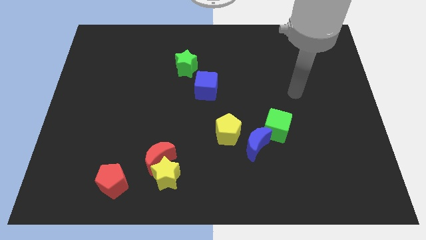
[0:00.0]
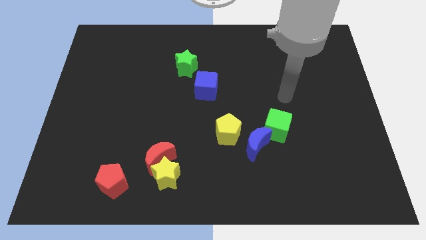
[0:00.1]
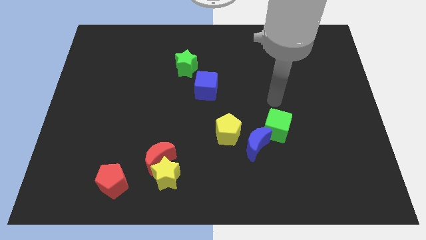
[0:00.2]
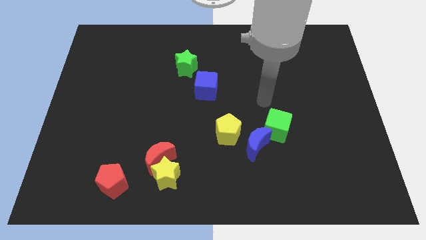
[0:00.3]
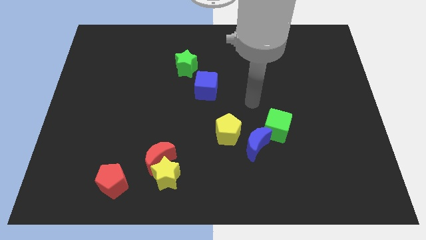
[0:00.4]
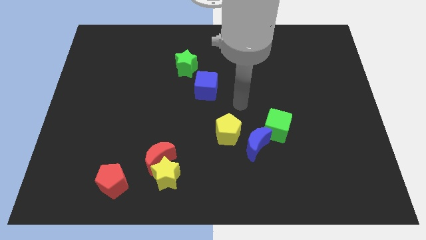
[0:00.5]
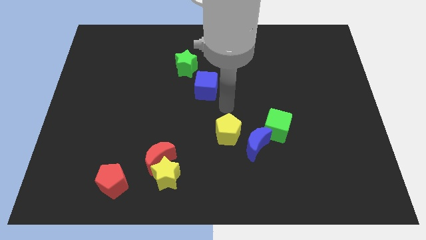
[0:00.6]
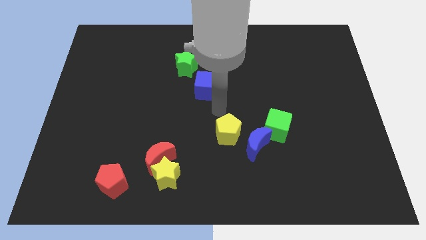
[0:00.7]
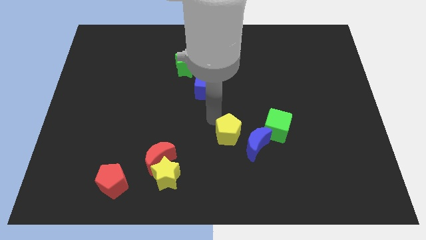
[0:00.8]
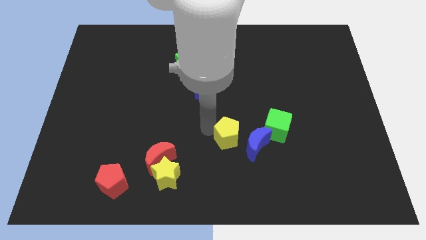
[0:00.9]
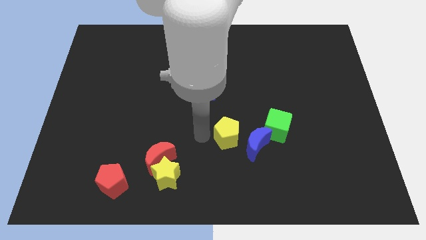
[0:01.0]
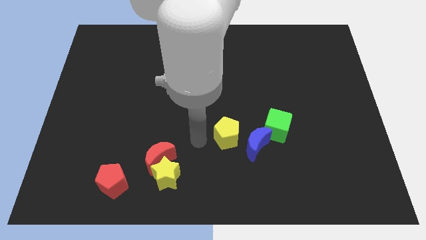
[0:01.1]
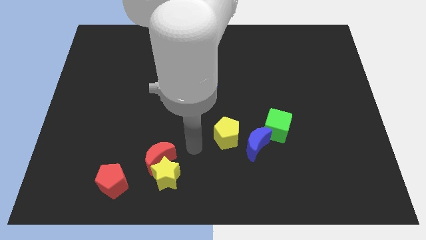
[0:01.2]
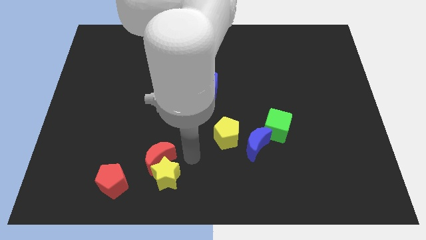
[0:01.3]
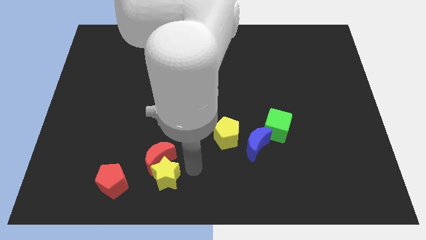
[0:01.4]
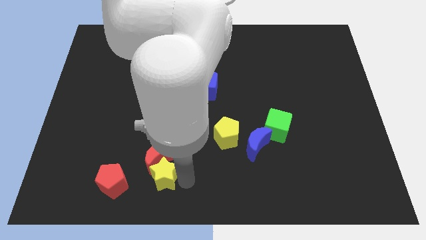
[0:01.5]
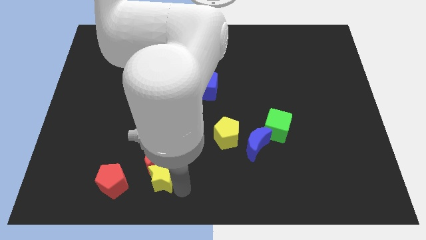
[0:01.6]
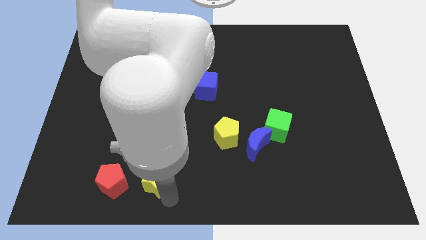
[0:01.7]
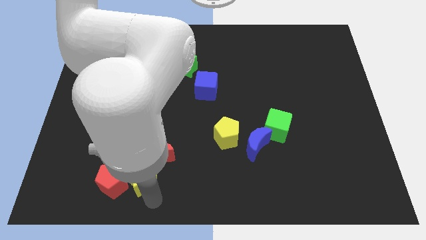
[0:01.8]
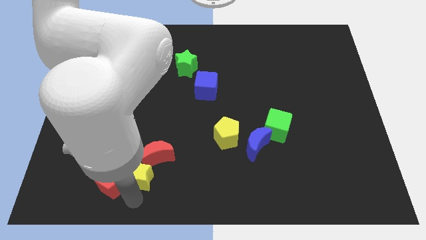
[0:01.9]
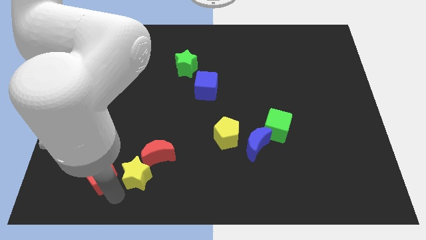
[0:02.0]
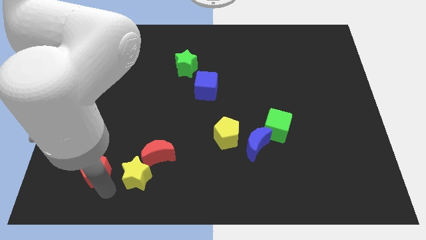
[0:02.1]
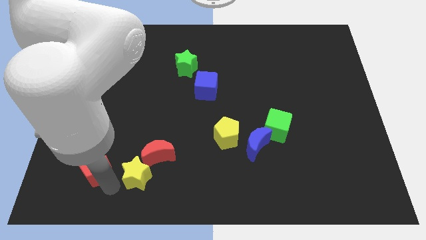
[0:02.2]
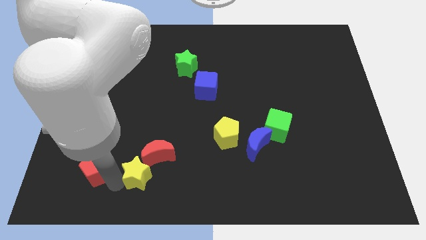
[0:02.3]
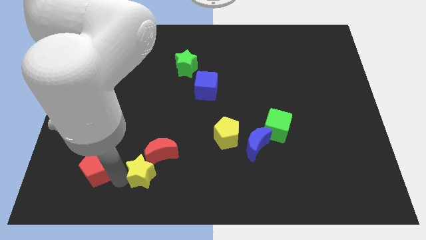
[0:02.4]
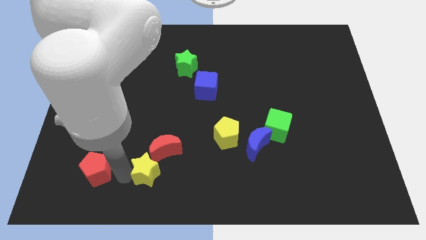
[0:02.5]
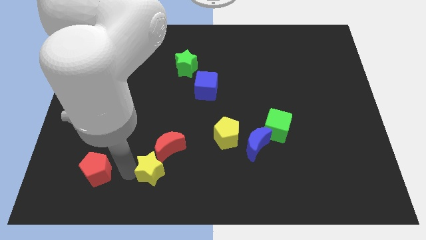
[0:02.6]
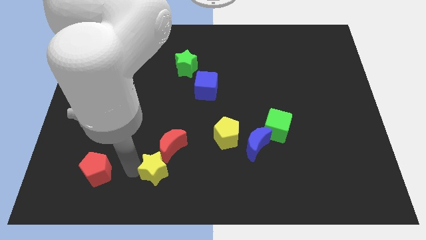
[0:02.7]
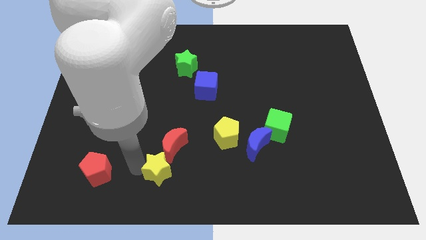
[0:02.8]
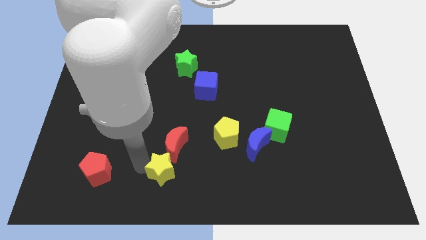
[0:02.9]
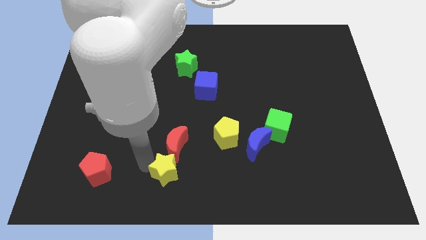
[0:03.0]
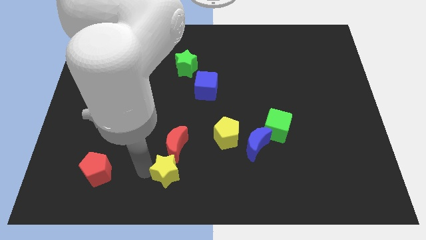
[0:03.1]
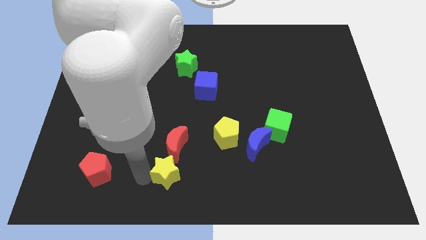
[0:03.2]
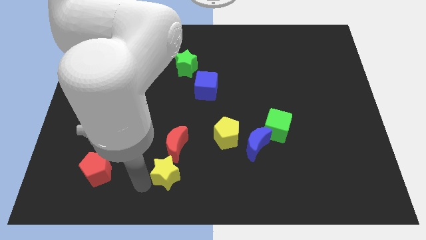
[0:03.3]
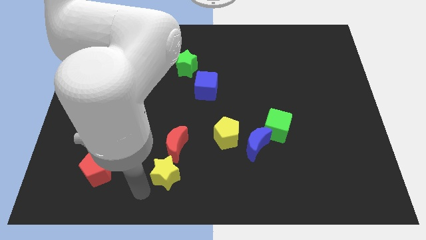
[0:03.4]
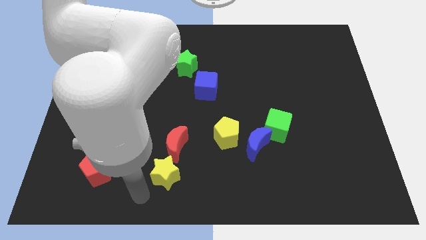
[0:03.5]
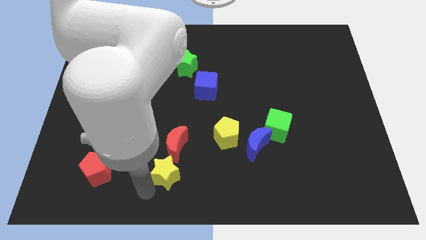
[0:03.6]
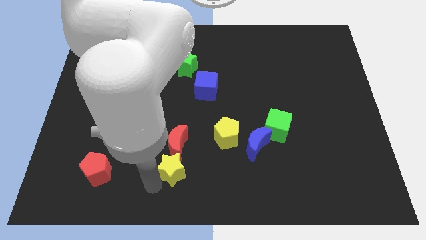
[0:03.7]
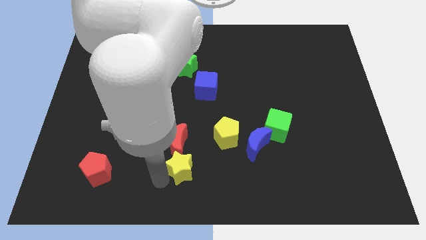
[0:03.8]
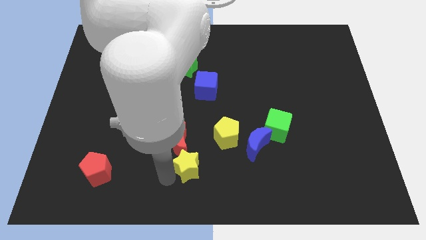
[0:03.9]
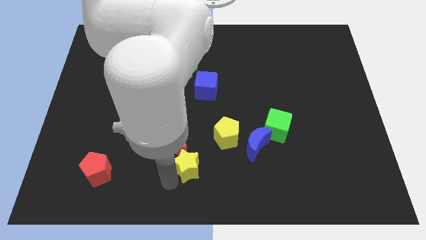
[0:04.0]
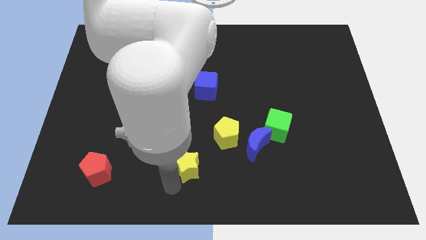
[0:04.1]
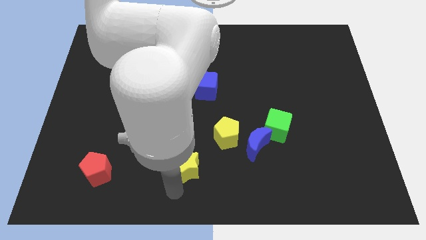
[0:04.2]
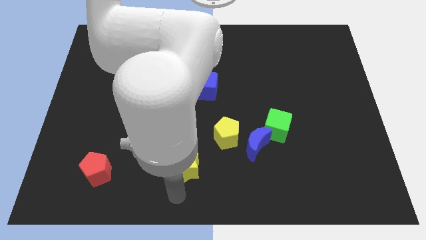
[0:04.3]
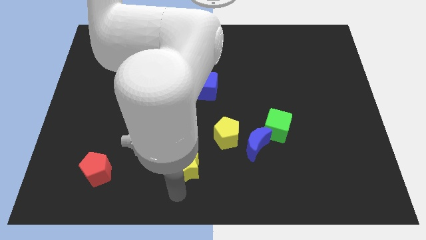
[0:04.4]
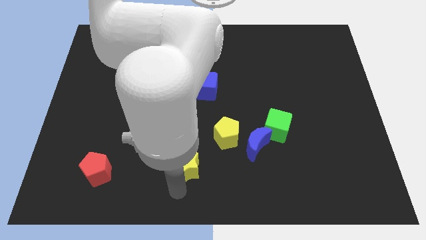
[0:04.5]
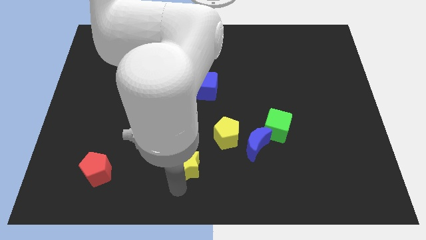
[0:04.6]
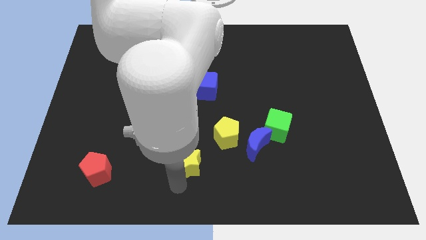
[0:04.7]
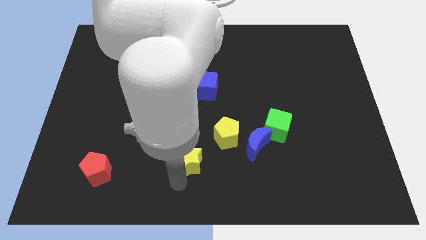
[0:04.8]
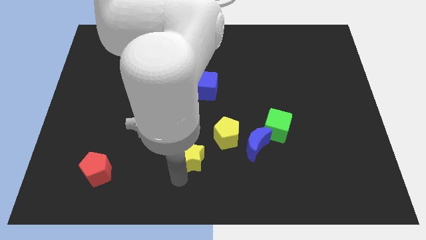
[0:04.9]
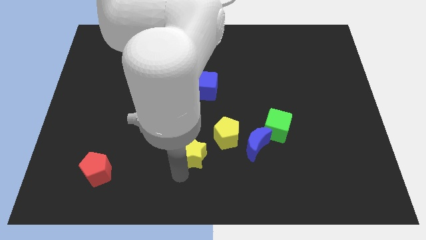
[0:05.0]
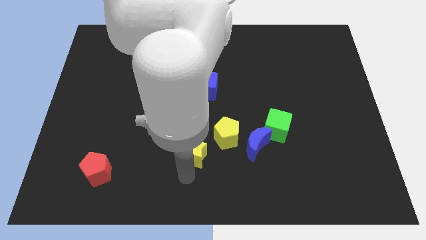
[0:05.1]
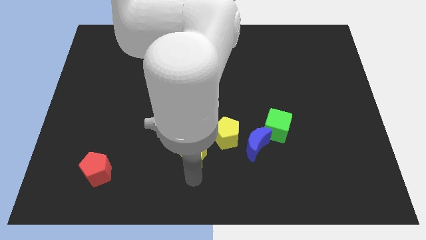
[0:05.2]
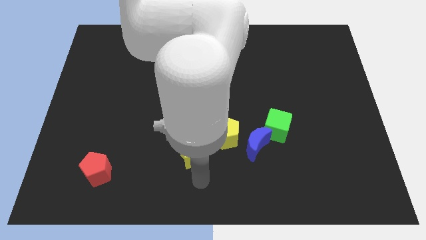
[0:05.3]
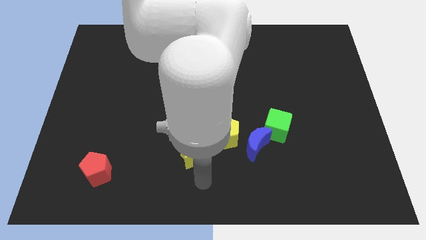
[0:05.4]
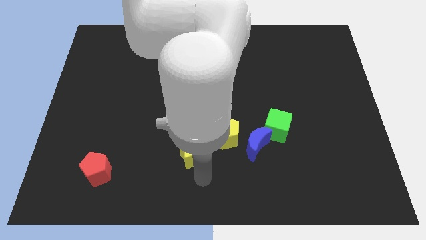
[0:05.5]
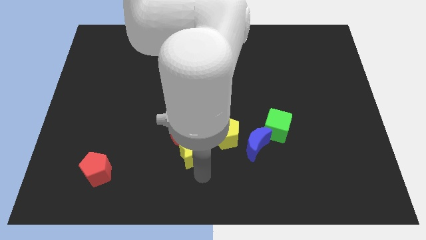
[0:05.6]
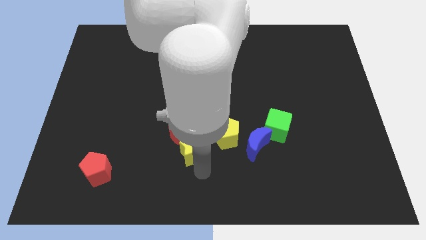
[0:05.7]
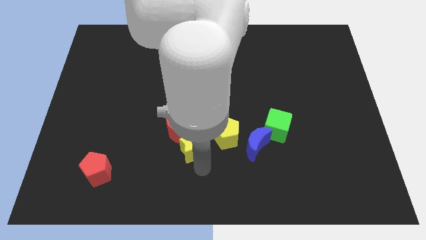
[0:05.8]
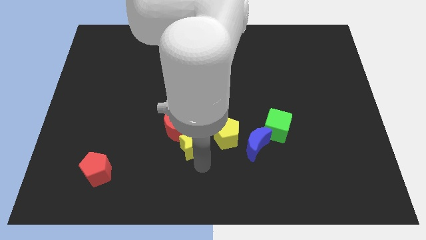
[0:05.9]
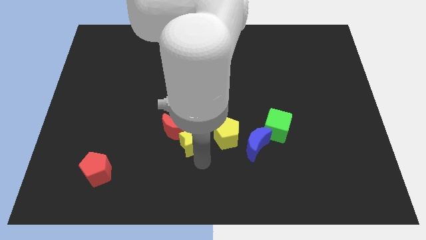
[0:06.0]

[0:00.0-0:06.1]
slightly slide the yellow star up

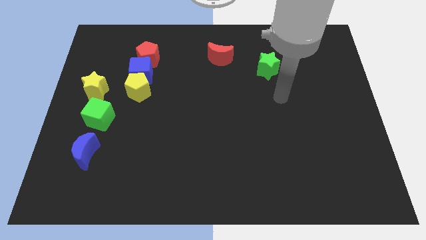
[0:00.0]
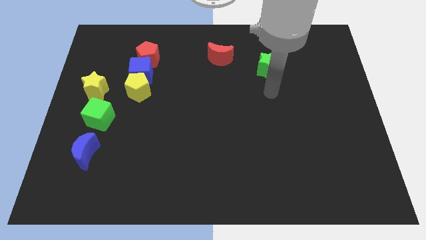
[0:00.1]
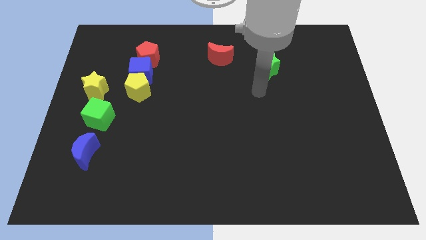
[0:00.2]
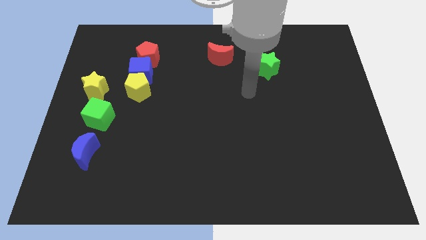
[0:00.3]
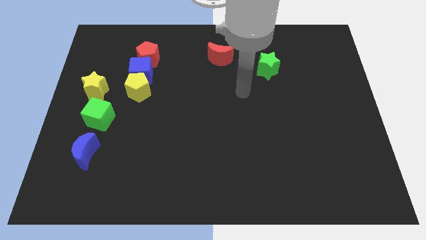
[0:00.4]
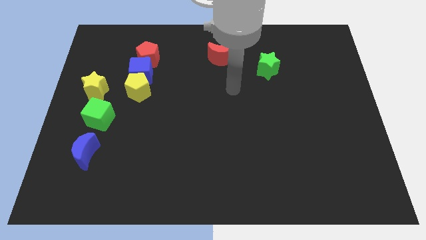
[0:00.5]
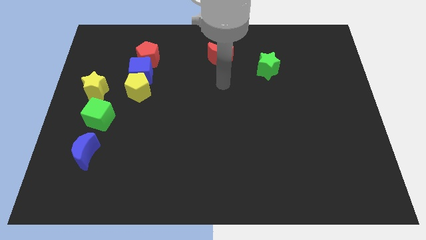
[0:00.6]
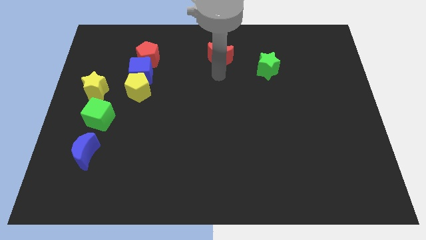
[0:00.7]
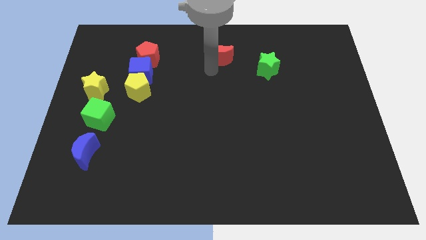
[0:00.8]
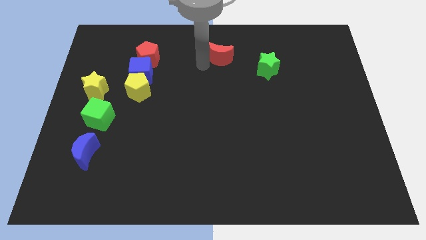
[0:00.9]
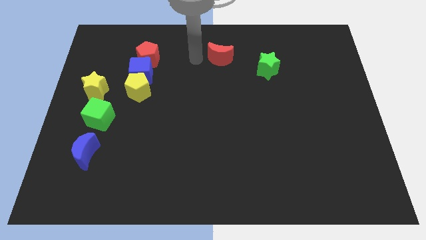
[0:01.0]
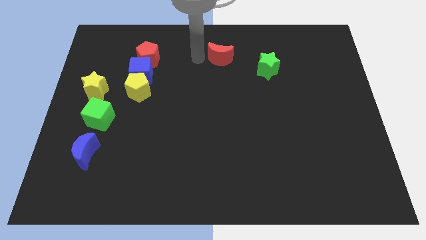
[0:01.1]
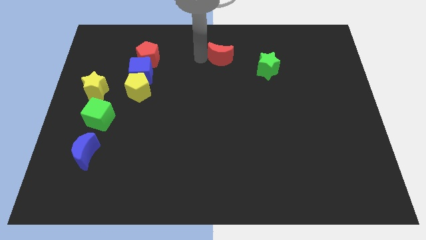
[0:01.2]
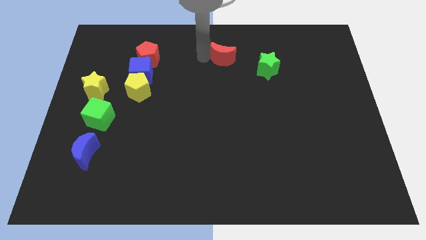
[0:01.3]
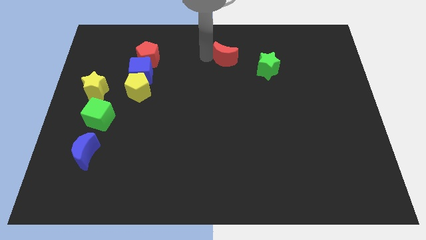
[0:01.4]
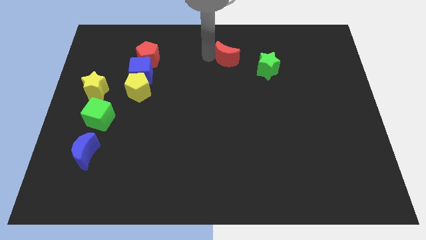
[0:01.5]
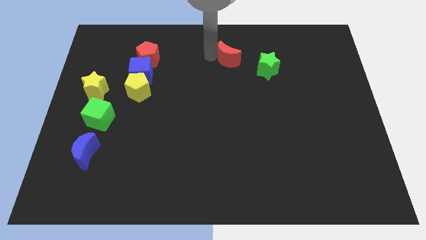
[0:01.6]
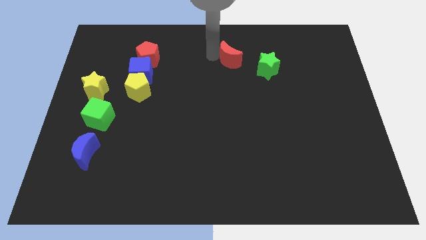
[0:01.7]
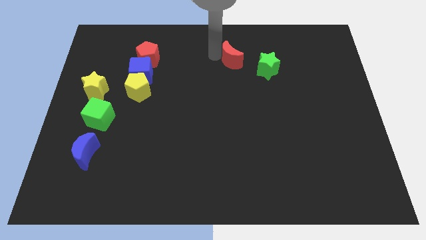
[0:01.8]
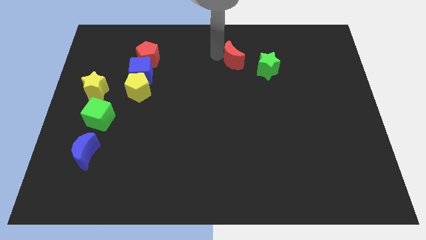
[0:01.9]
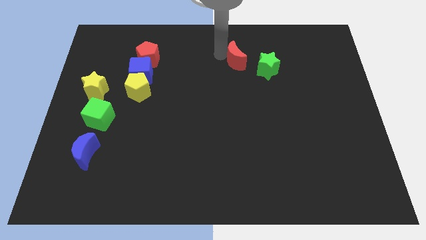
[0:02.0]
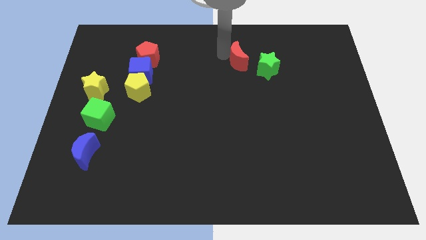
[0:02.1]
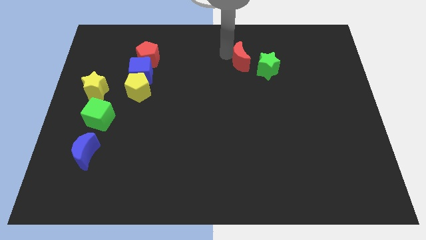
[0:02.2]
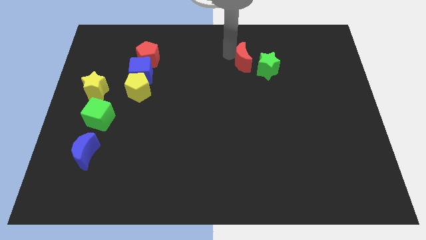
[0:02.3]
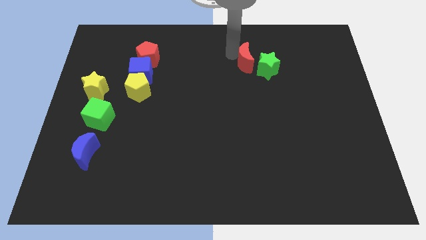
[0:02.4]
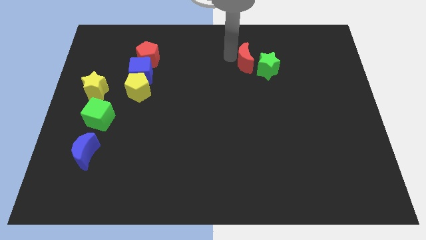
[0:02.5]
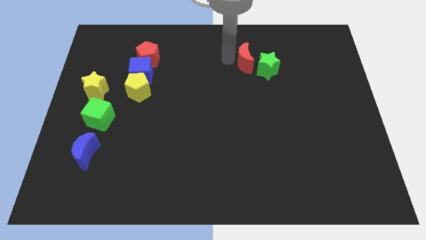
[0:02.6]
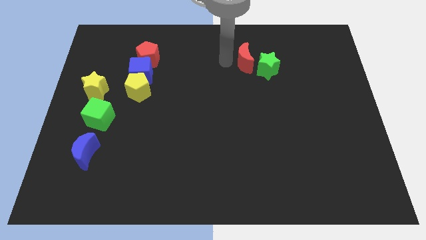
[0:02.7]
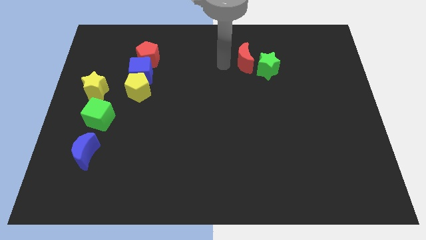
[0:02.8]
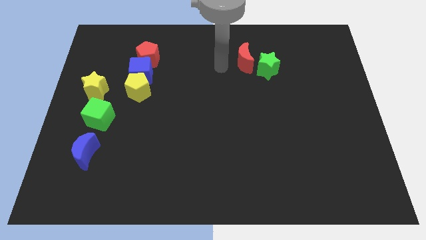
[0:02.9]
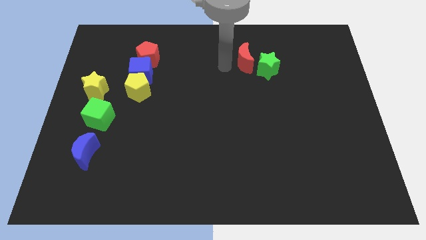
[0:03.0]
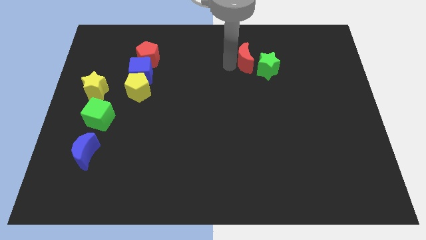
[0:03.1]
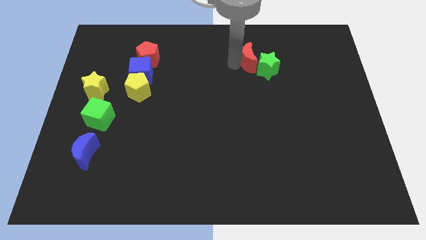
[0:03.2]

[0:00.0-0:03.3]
move the red moon right a little bit
